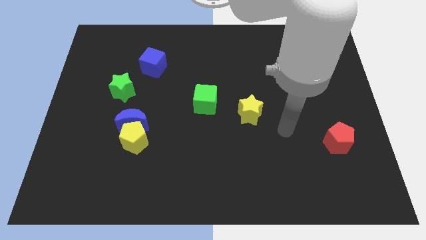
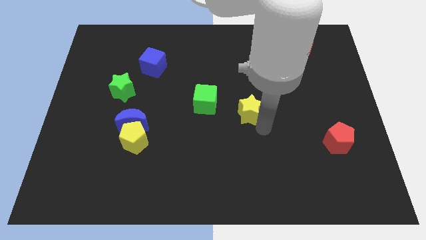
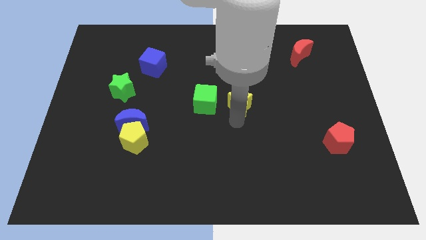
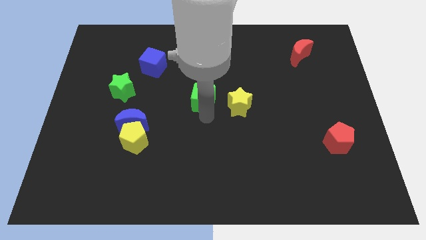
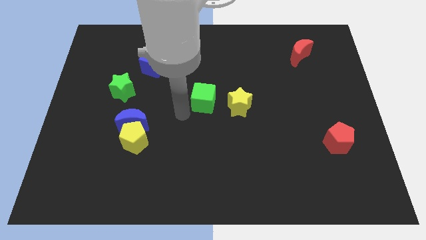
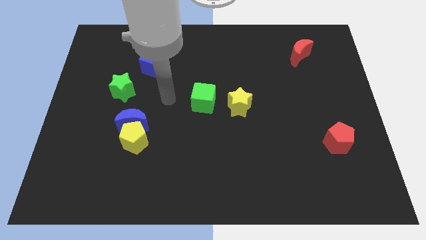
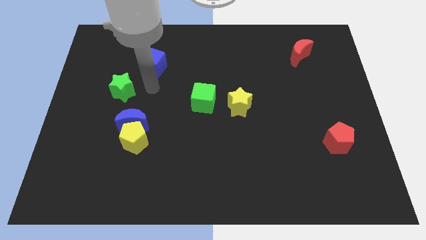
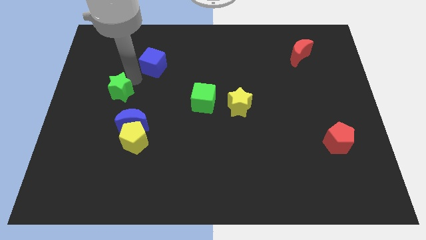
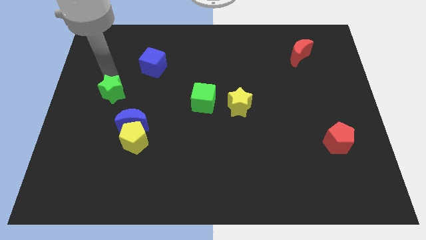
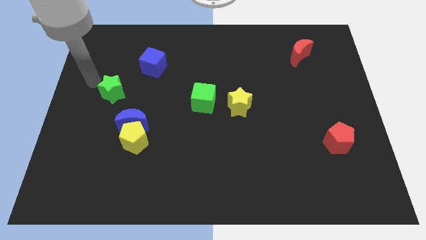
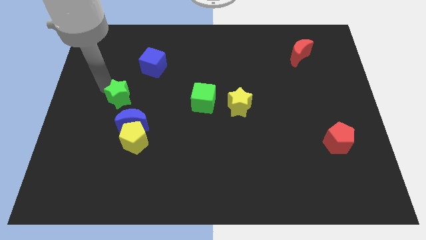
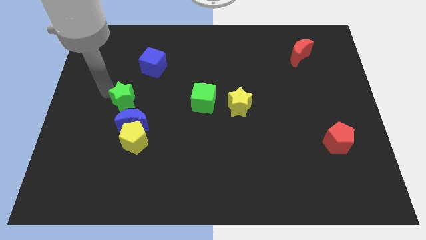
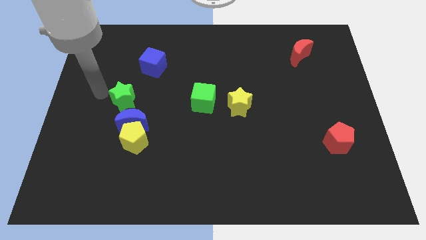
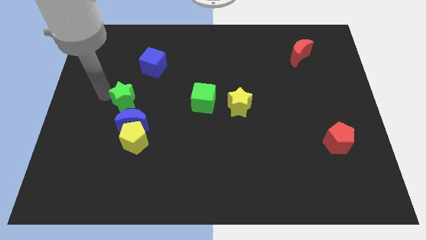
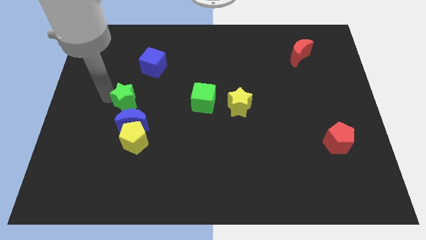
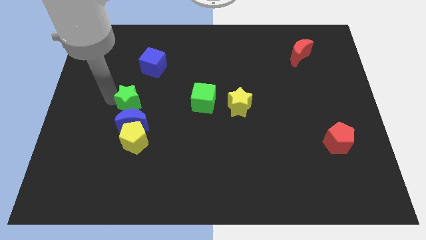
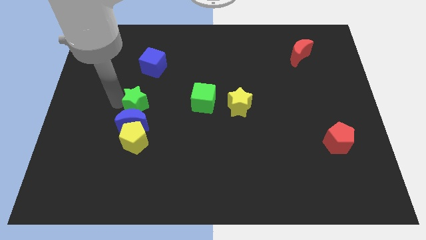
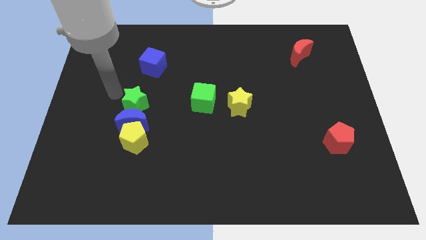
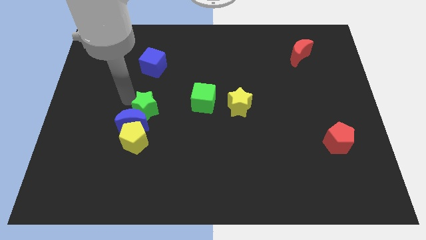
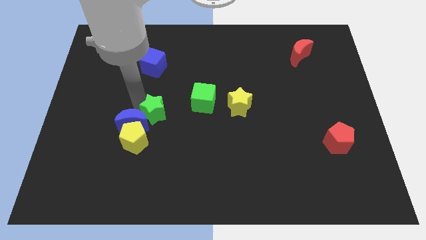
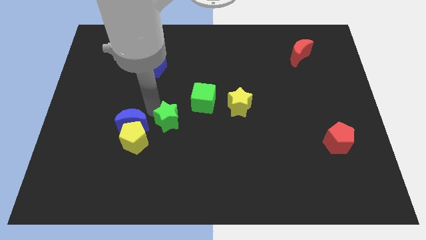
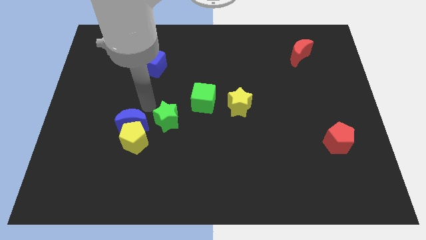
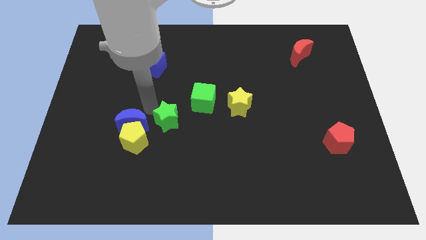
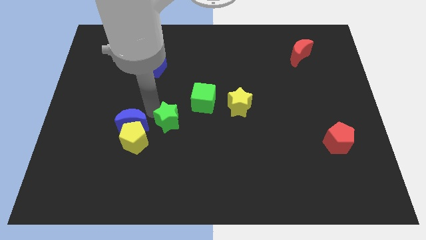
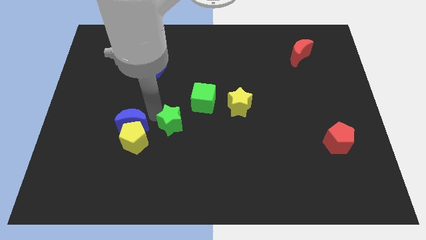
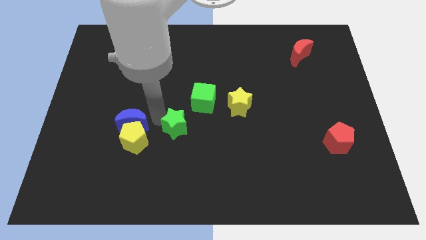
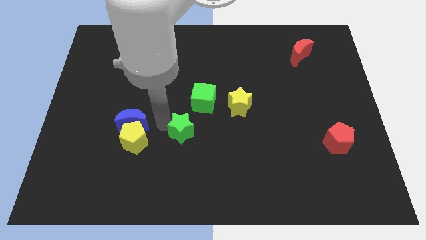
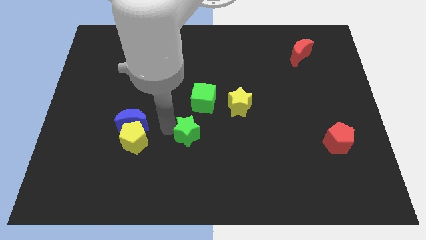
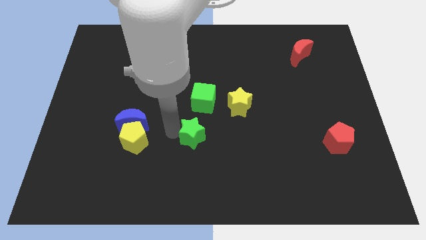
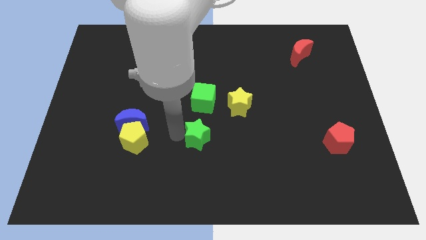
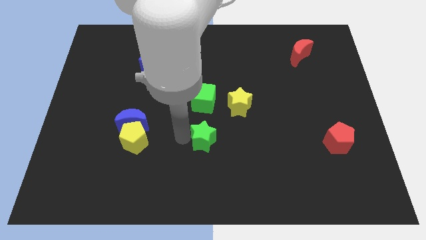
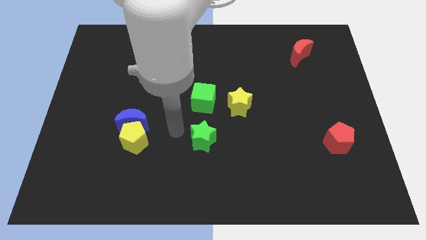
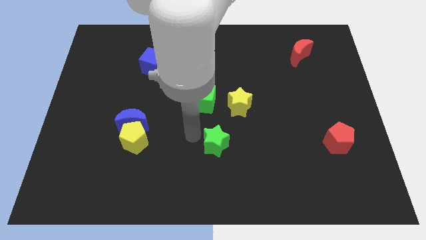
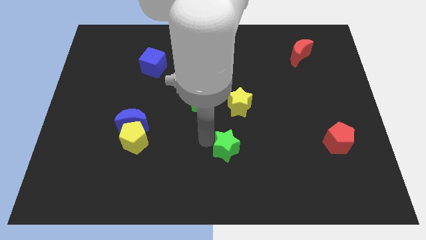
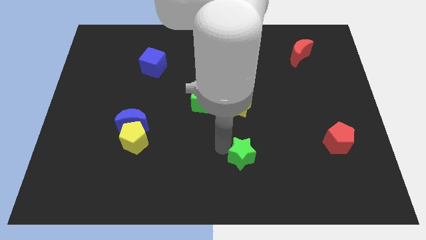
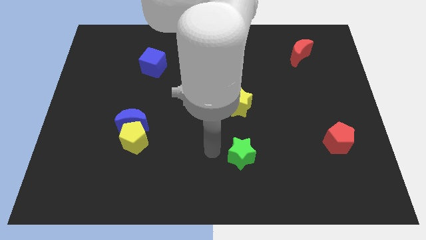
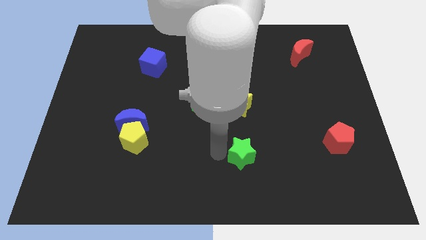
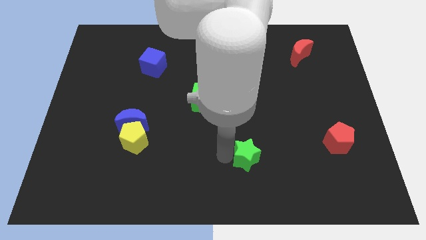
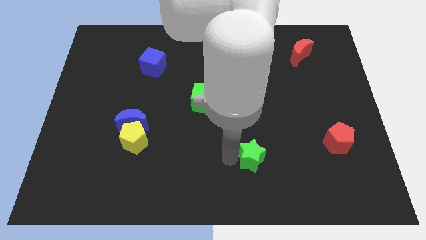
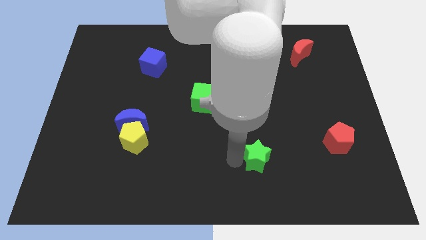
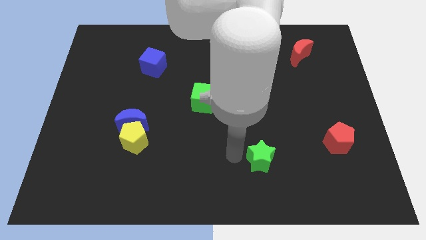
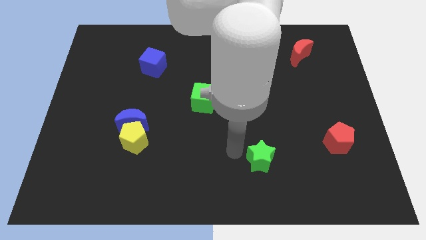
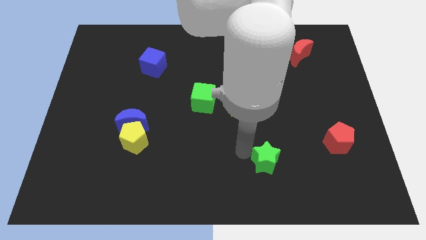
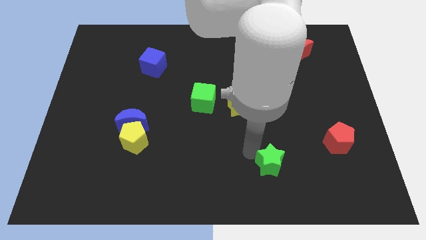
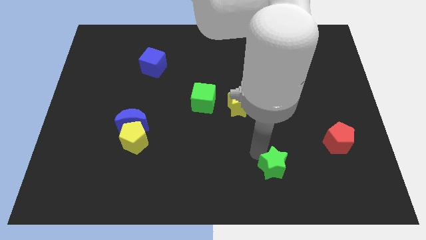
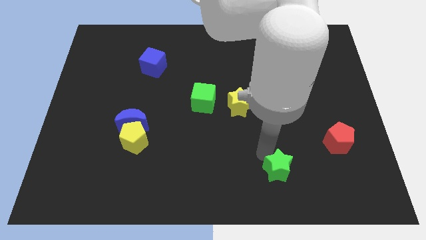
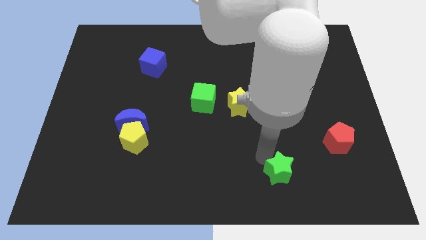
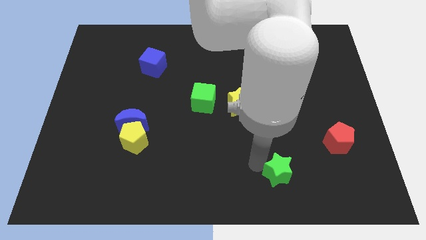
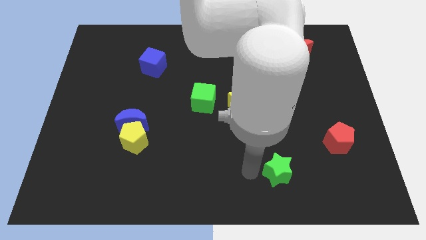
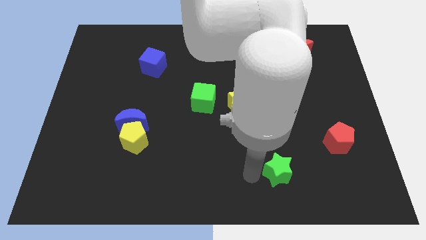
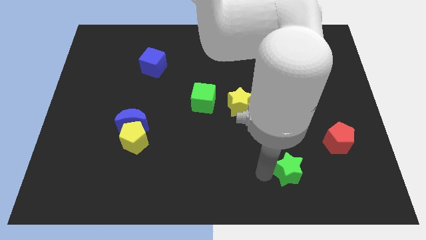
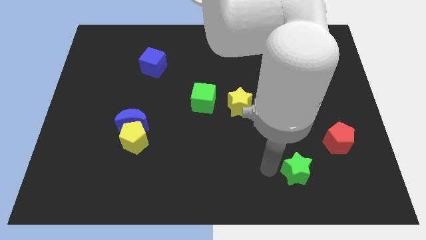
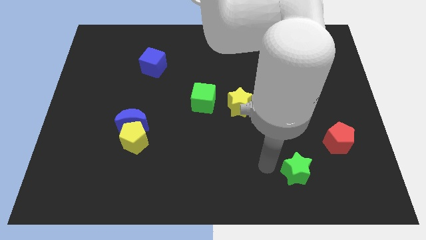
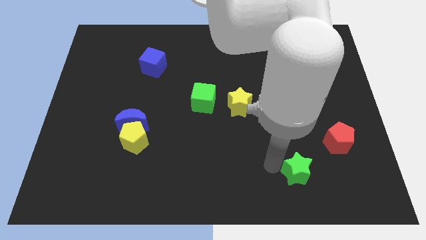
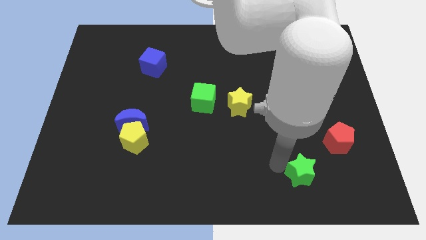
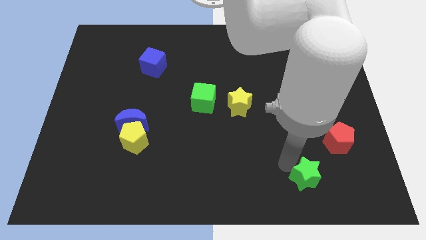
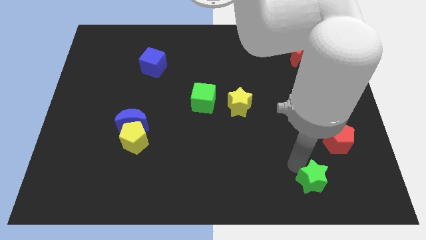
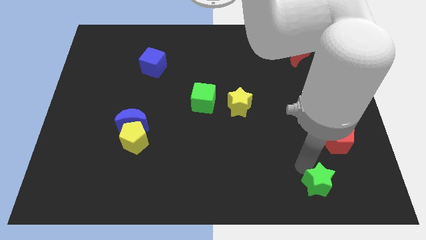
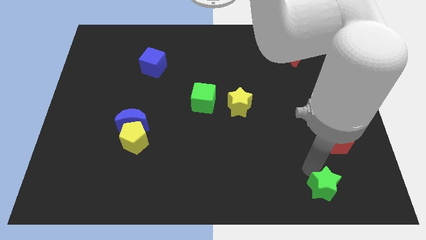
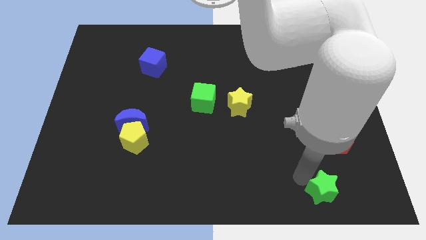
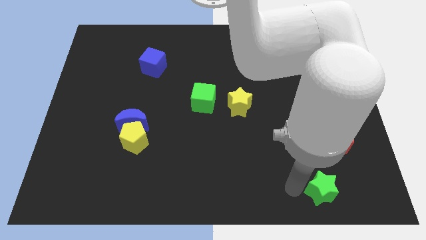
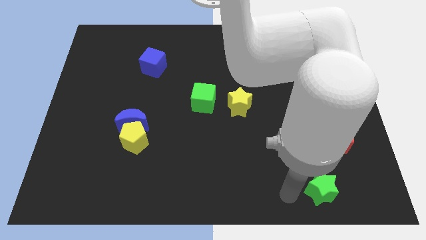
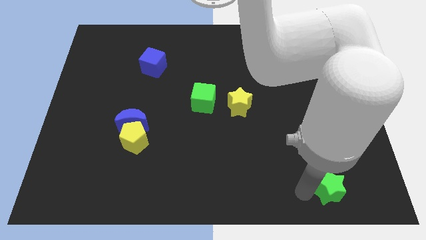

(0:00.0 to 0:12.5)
slide the green star below the red pentagon
